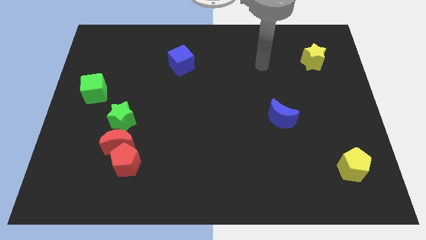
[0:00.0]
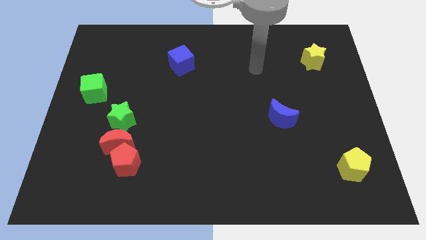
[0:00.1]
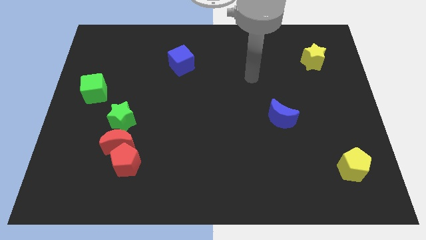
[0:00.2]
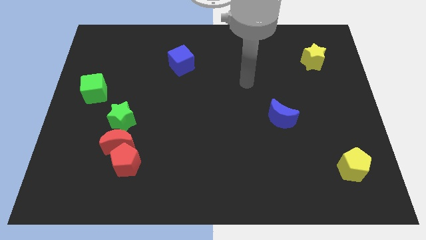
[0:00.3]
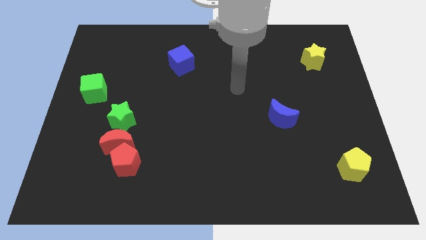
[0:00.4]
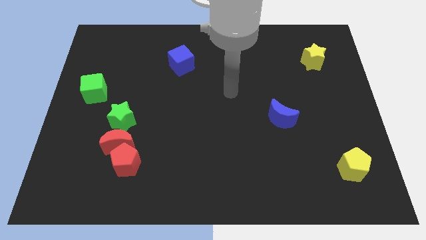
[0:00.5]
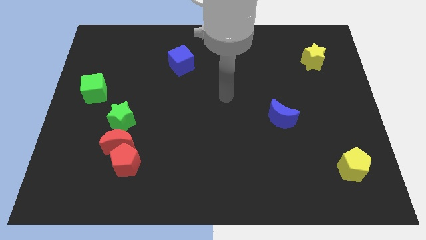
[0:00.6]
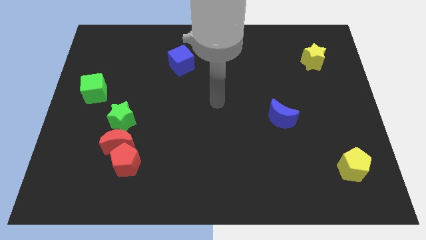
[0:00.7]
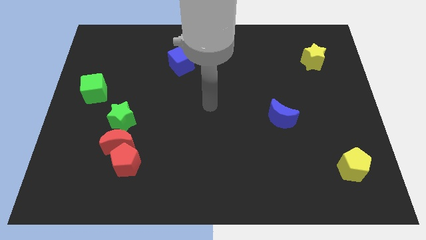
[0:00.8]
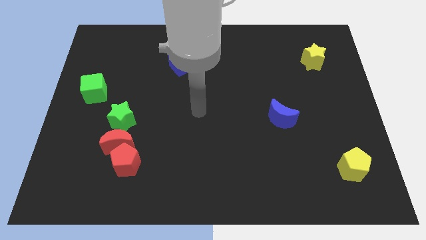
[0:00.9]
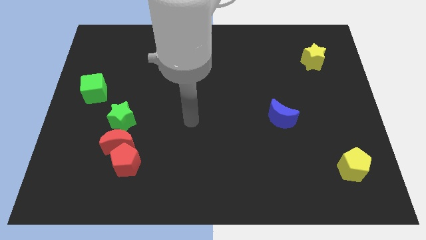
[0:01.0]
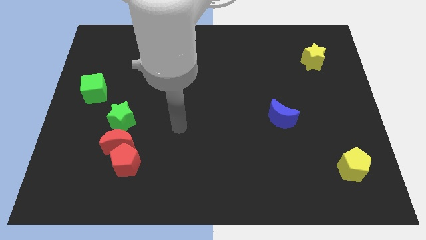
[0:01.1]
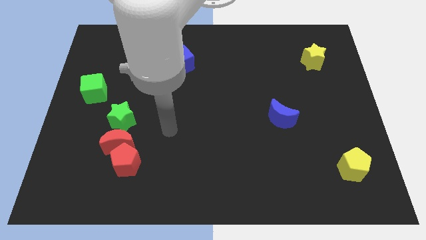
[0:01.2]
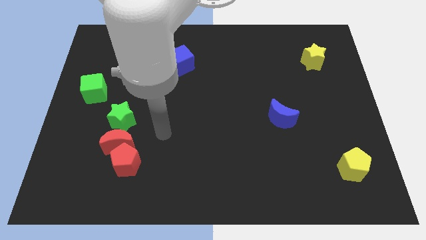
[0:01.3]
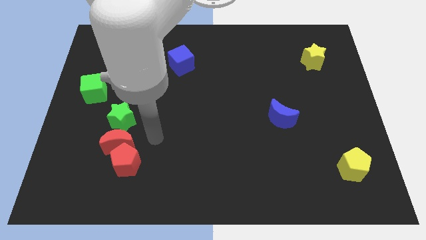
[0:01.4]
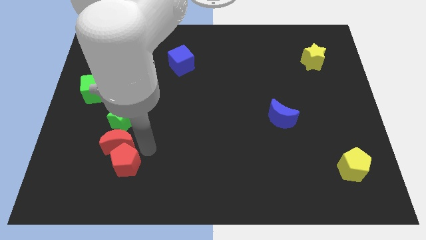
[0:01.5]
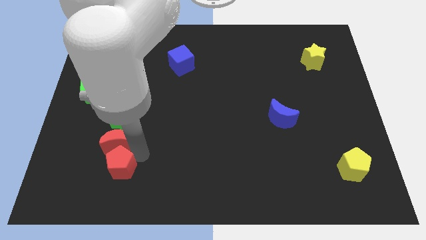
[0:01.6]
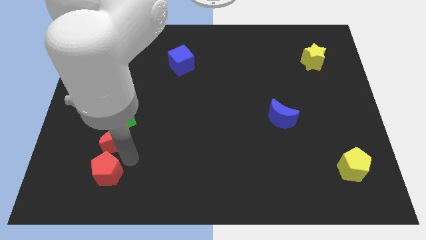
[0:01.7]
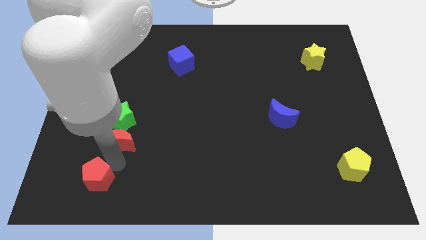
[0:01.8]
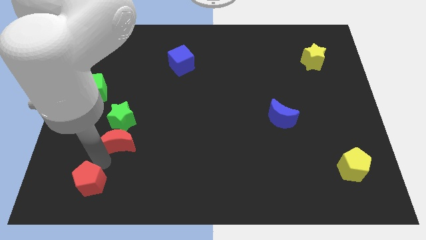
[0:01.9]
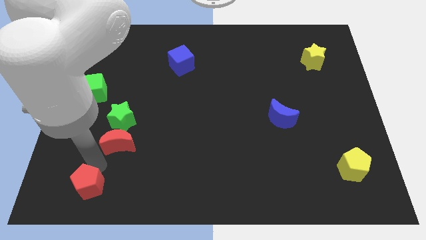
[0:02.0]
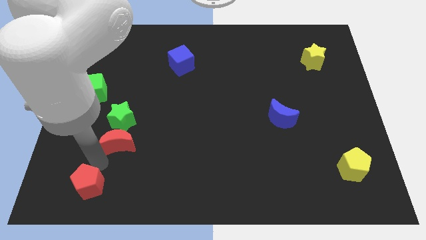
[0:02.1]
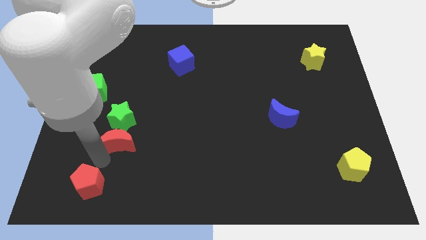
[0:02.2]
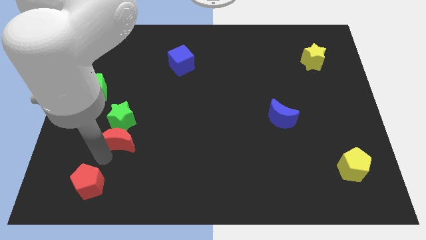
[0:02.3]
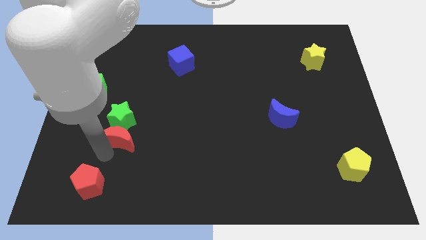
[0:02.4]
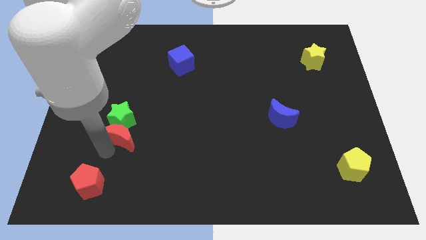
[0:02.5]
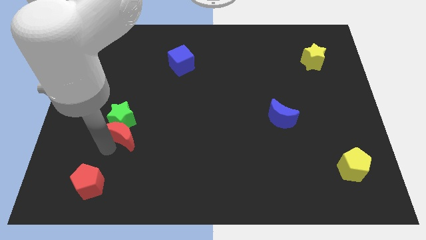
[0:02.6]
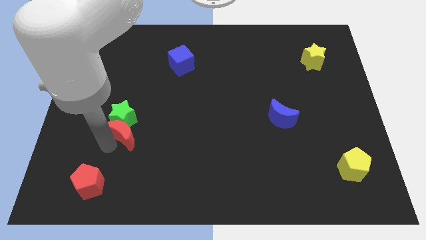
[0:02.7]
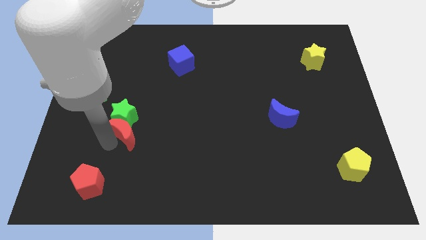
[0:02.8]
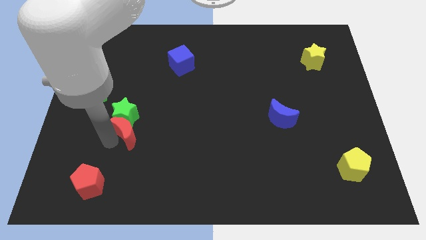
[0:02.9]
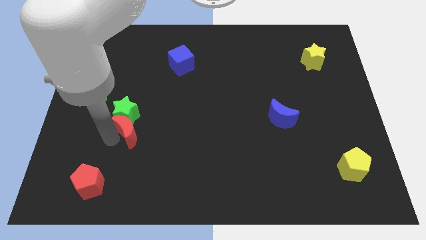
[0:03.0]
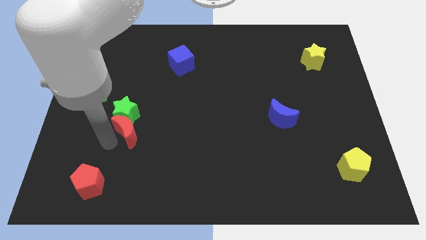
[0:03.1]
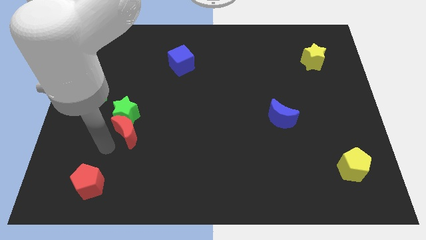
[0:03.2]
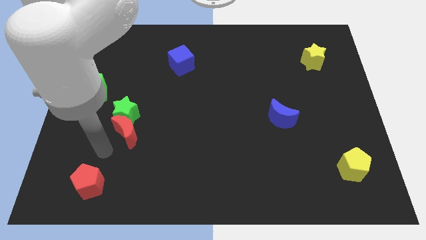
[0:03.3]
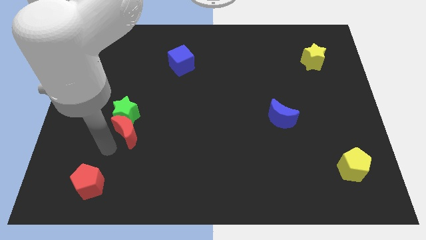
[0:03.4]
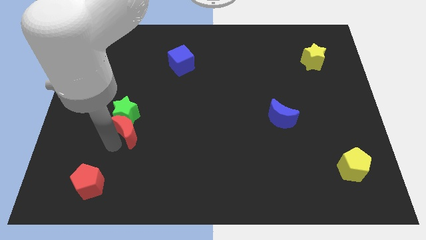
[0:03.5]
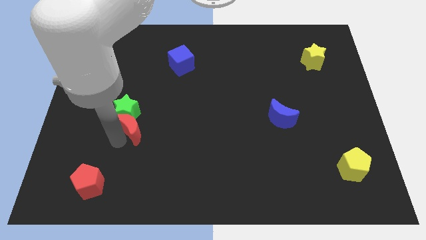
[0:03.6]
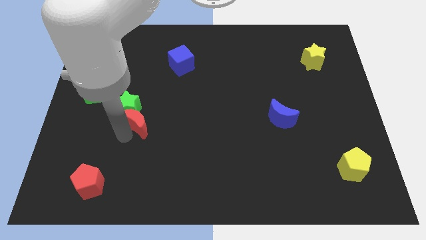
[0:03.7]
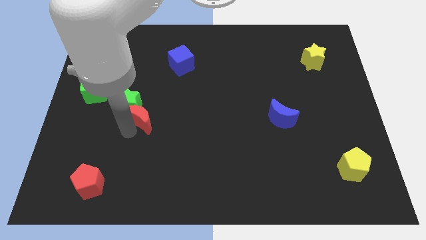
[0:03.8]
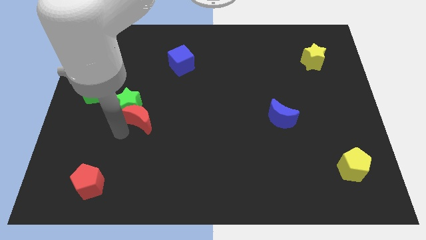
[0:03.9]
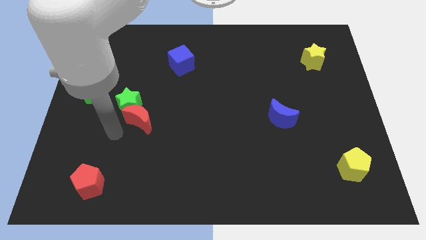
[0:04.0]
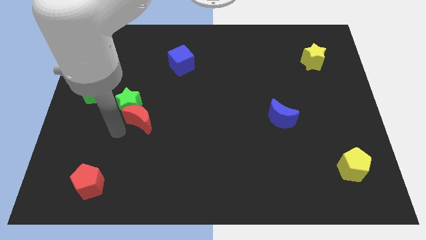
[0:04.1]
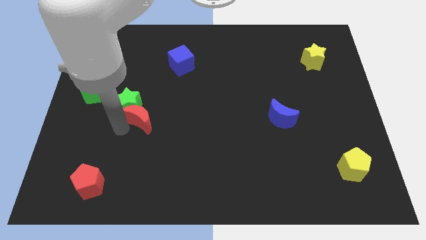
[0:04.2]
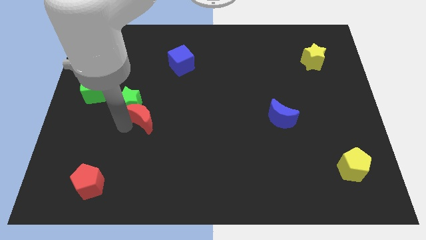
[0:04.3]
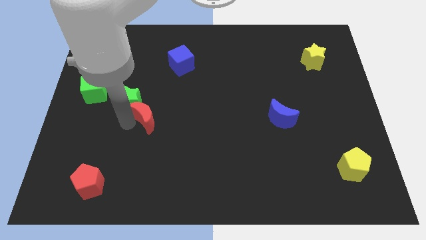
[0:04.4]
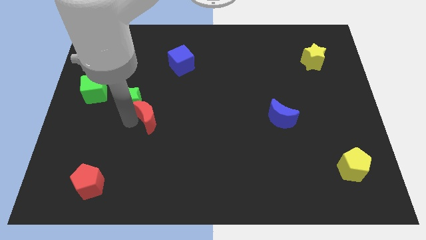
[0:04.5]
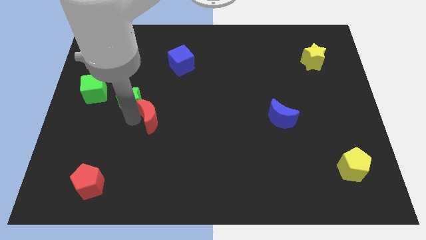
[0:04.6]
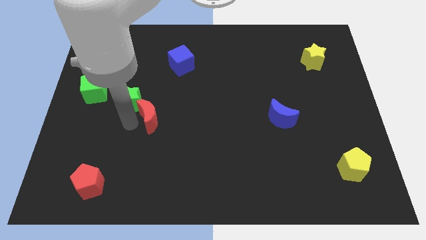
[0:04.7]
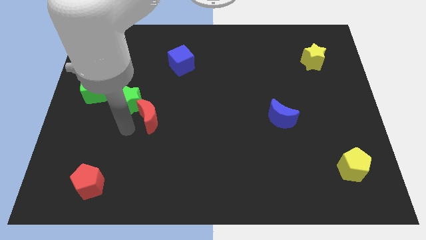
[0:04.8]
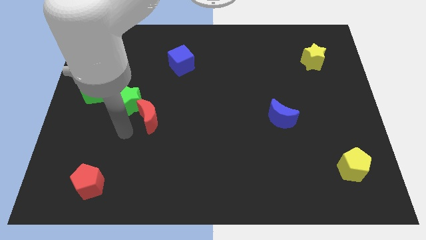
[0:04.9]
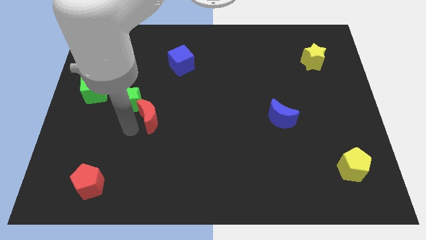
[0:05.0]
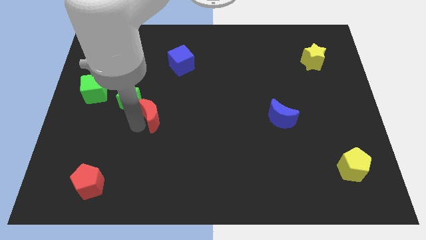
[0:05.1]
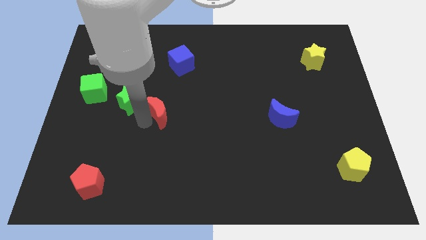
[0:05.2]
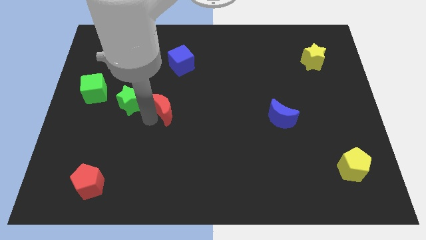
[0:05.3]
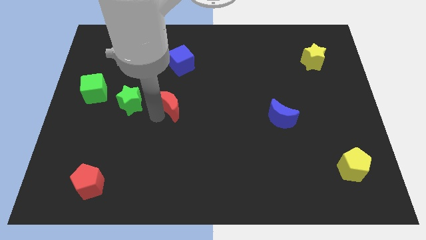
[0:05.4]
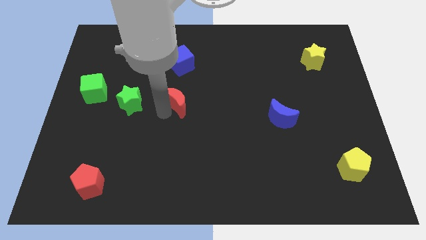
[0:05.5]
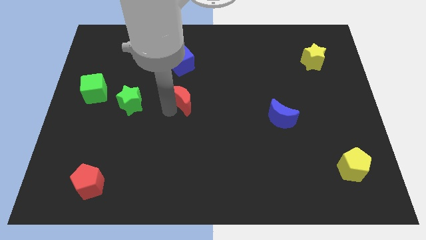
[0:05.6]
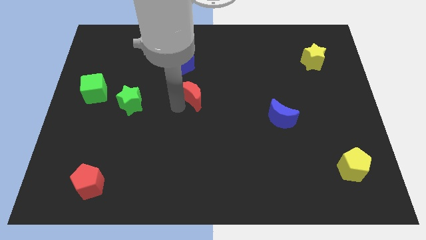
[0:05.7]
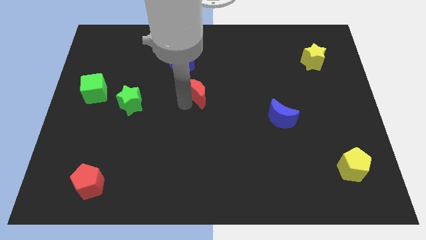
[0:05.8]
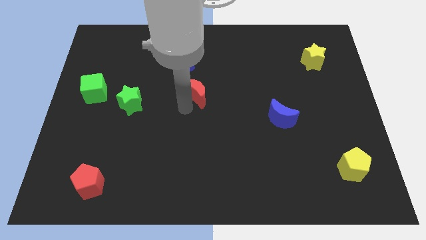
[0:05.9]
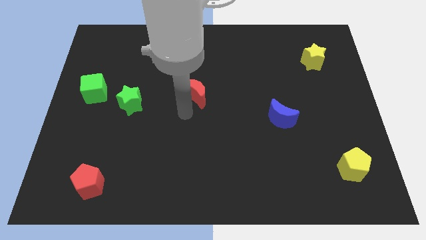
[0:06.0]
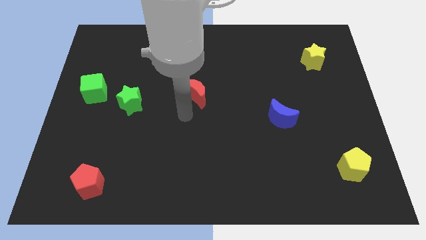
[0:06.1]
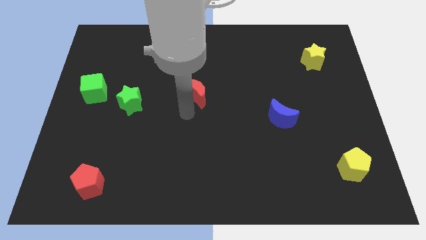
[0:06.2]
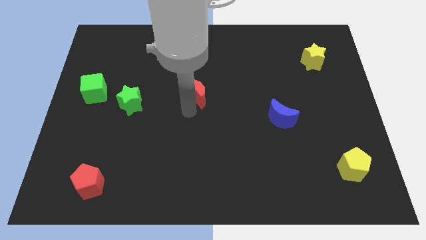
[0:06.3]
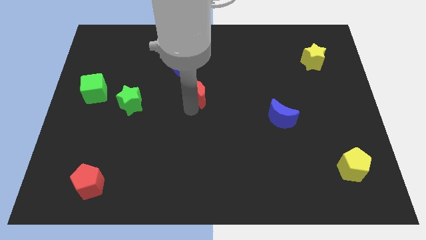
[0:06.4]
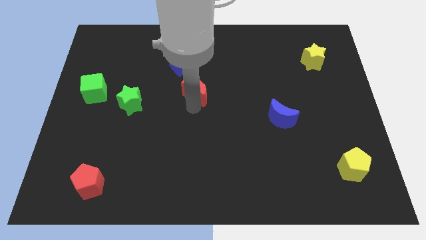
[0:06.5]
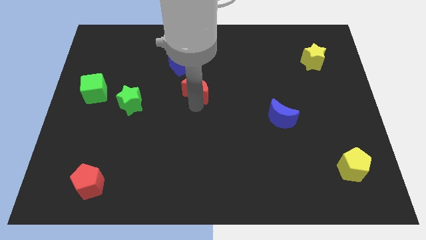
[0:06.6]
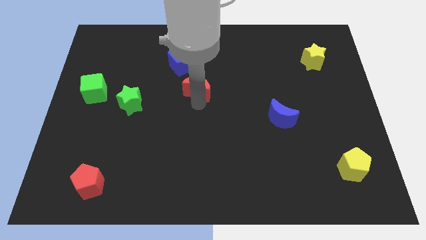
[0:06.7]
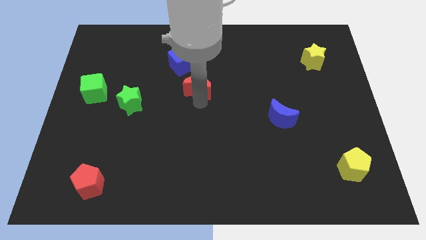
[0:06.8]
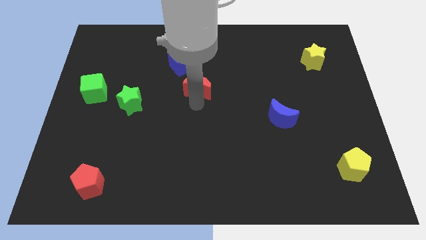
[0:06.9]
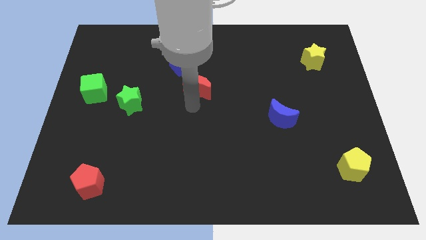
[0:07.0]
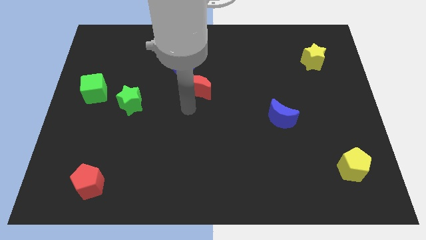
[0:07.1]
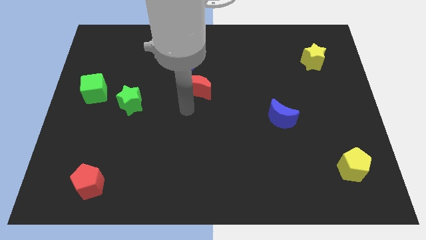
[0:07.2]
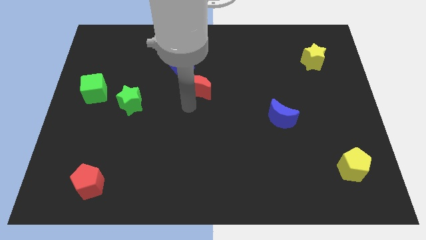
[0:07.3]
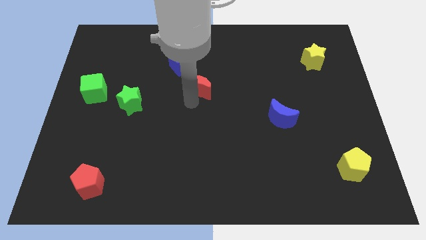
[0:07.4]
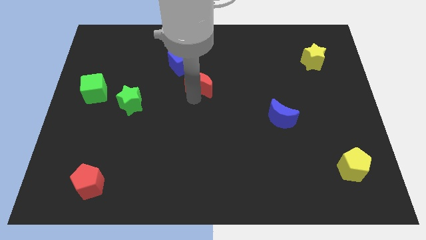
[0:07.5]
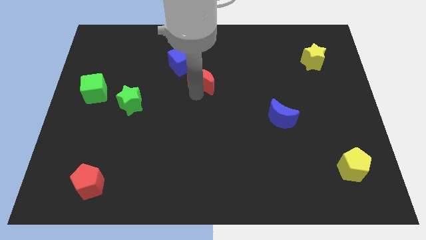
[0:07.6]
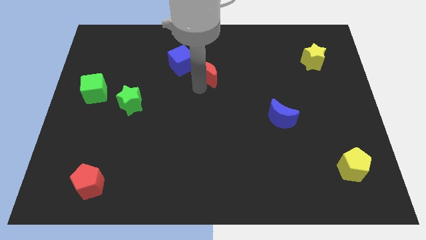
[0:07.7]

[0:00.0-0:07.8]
put the red moon to the right of the blue cube
